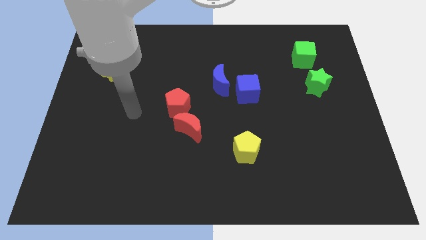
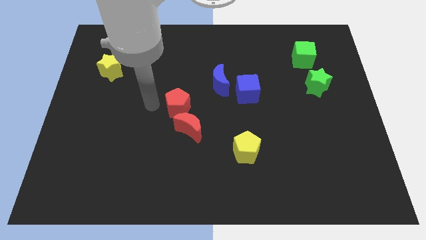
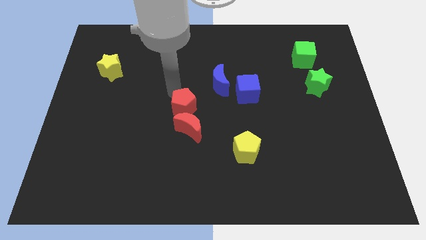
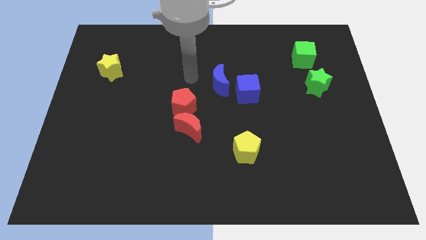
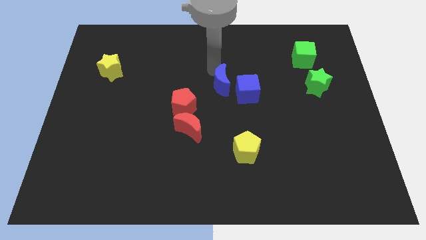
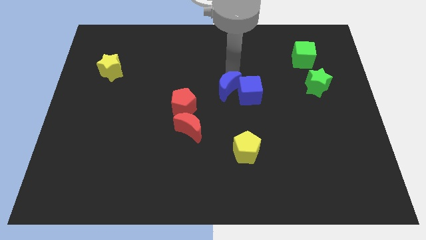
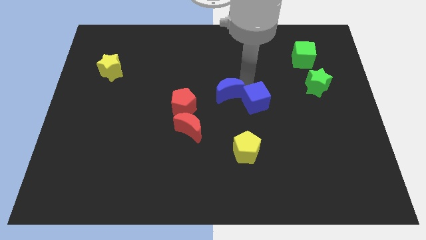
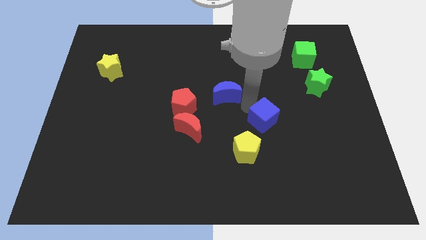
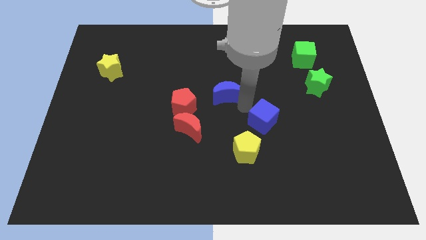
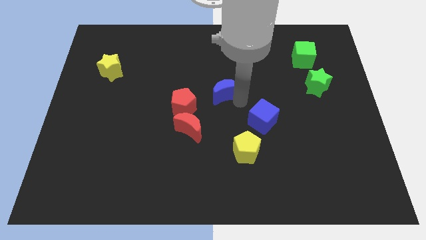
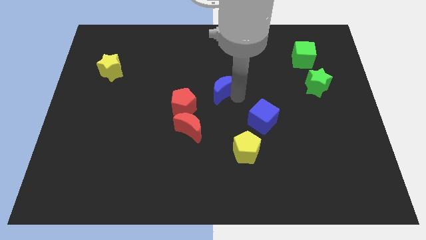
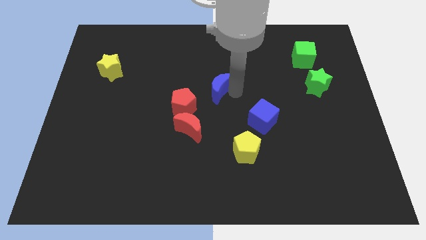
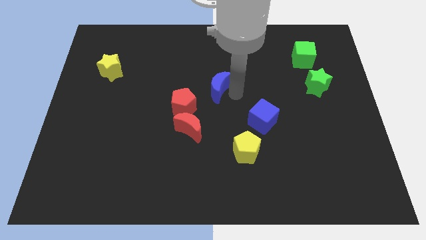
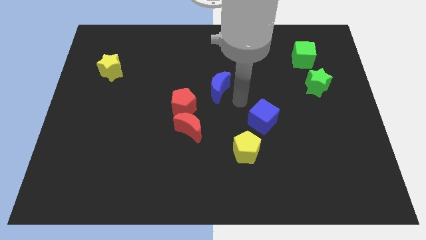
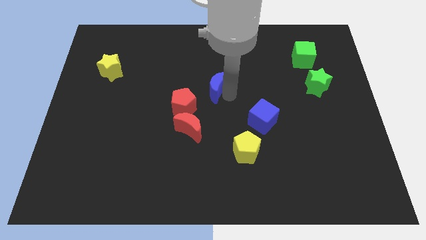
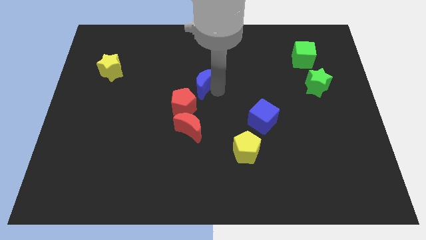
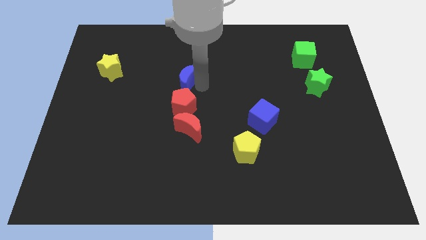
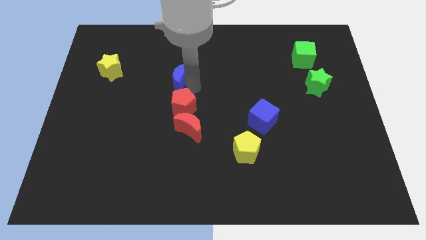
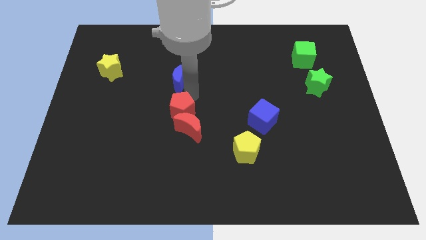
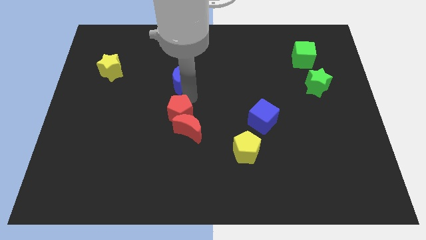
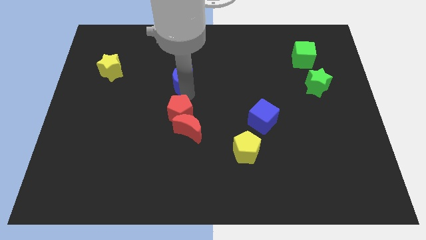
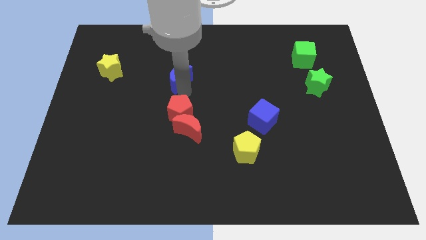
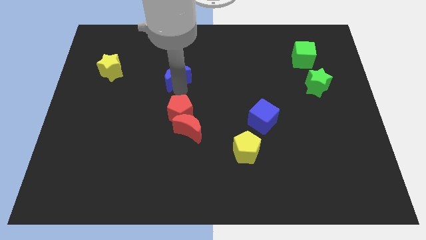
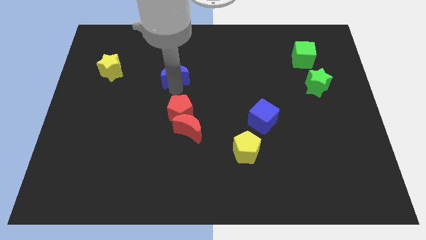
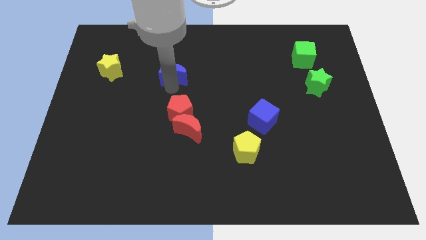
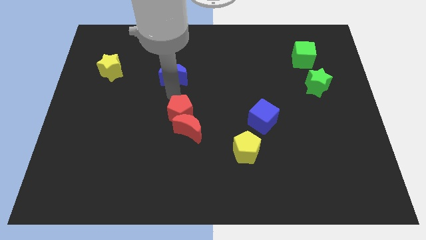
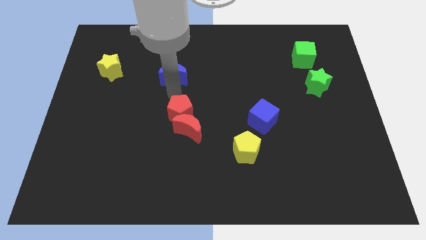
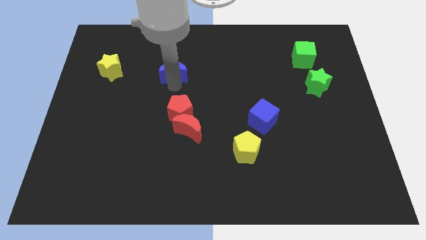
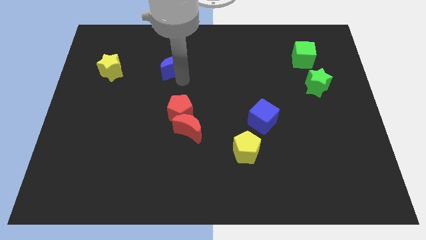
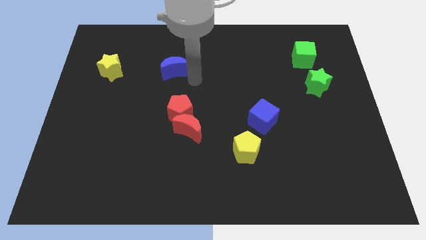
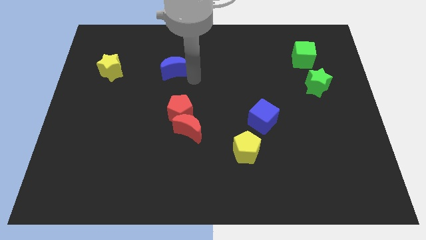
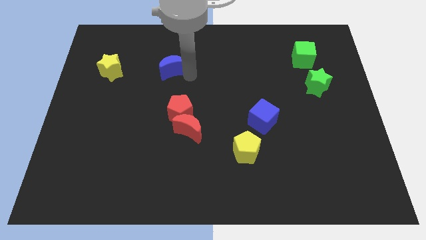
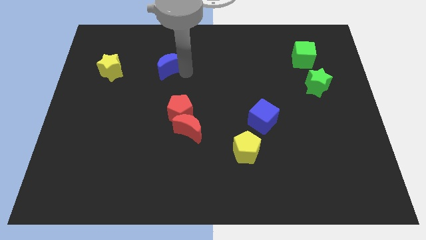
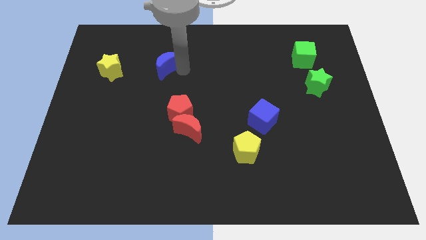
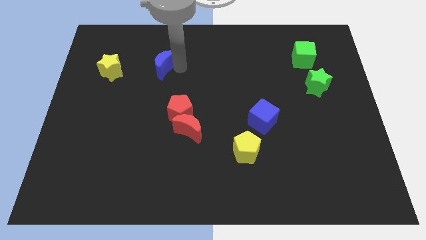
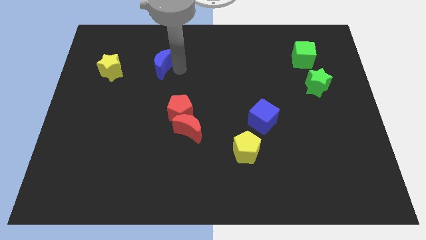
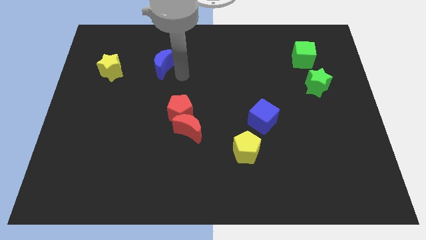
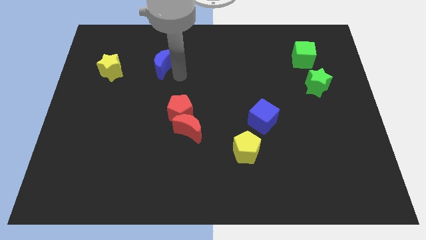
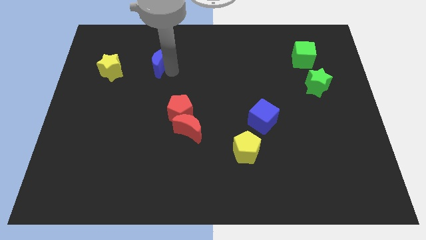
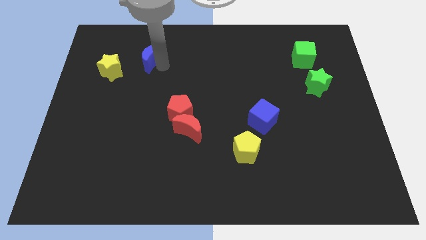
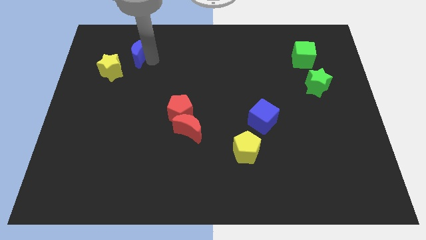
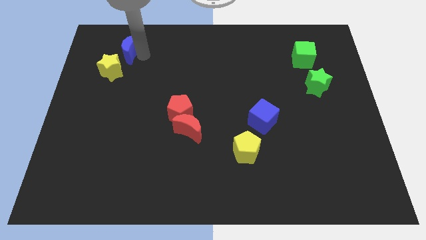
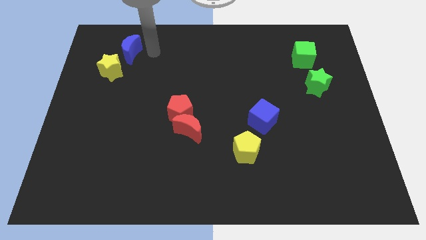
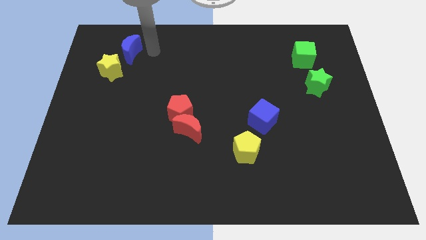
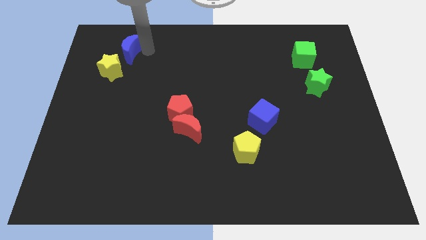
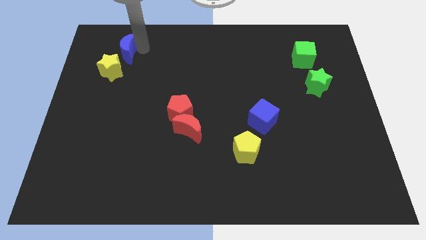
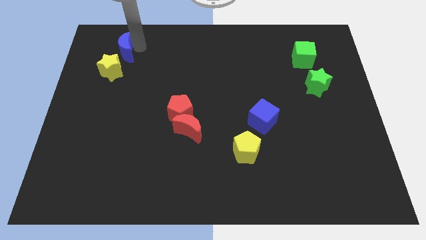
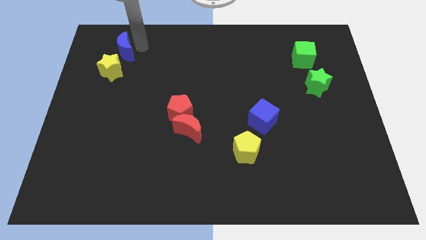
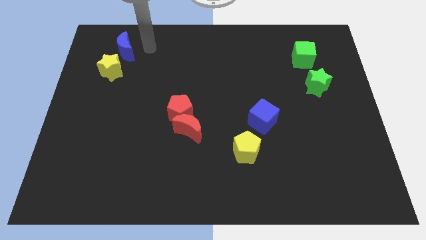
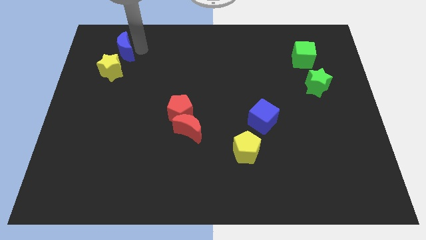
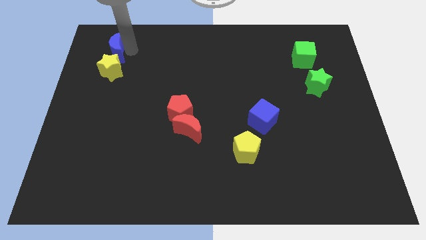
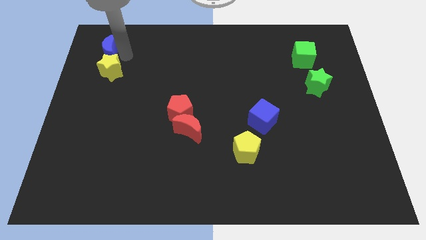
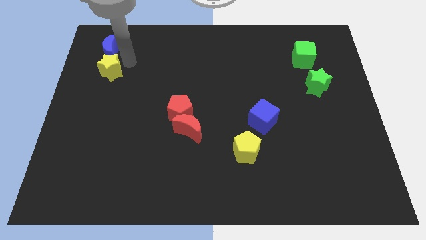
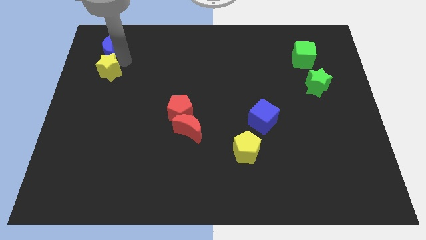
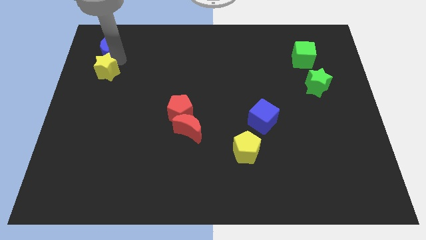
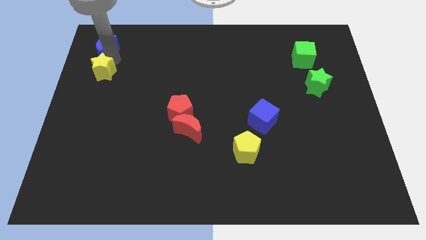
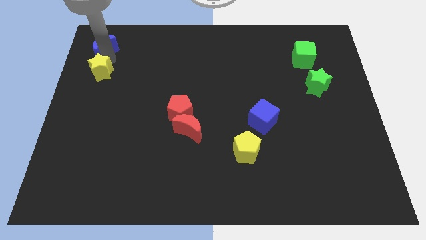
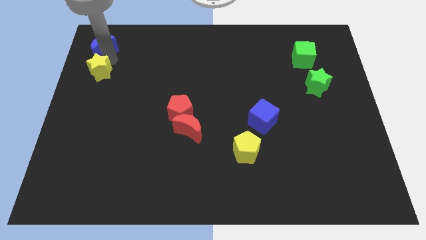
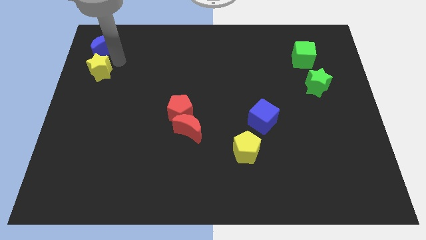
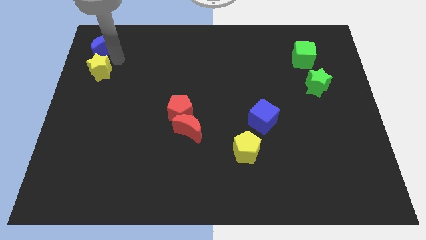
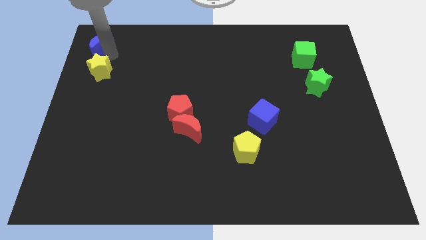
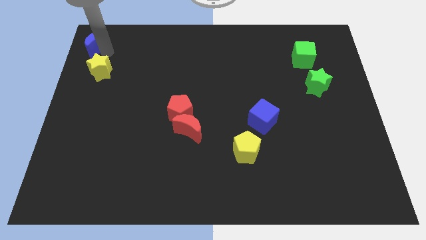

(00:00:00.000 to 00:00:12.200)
move the blue moon to the upper left corner
